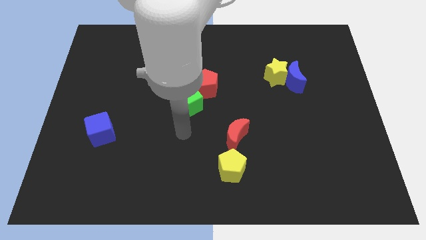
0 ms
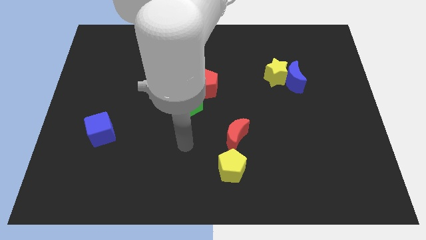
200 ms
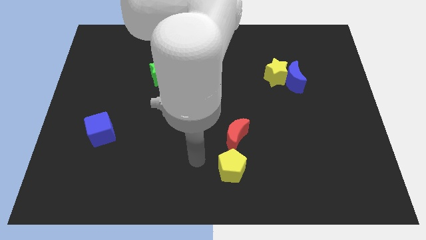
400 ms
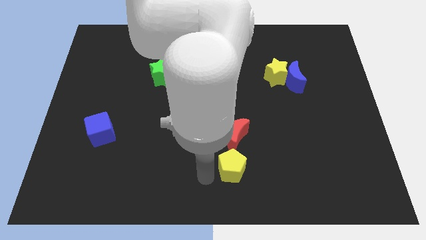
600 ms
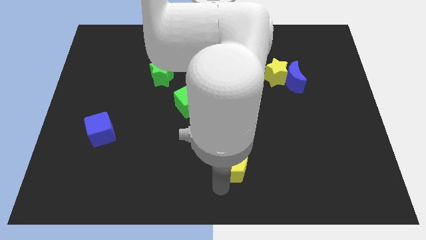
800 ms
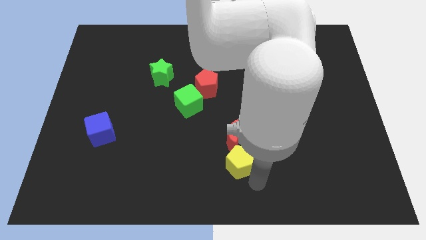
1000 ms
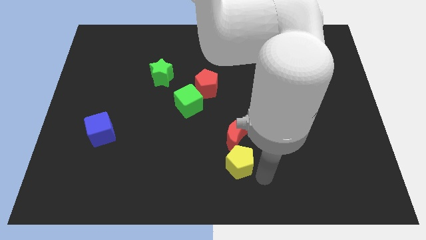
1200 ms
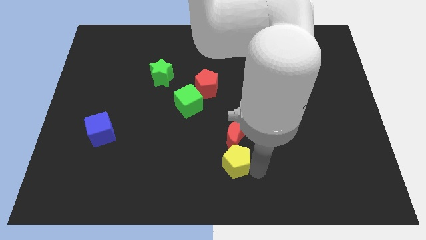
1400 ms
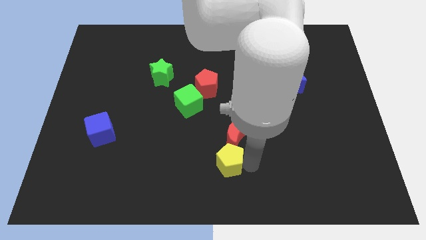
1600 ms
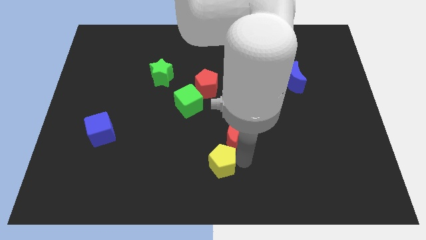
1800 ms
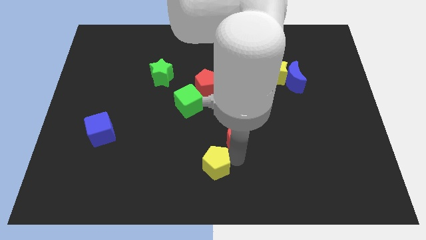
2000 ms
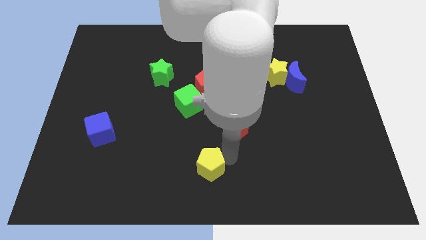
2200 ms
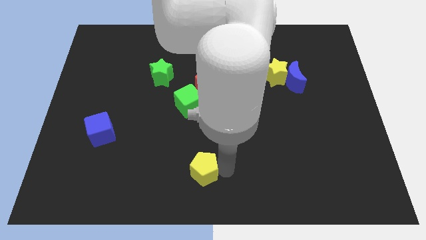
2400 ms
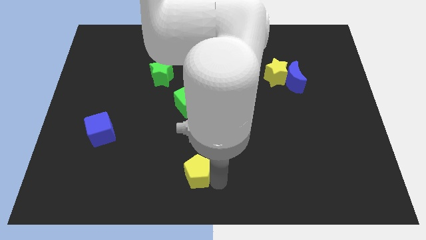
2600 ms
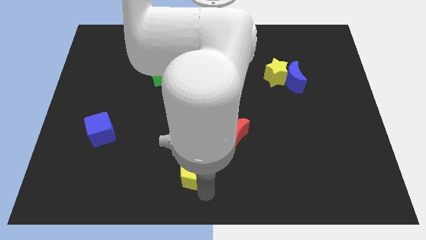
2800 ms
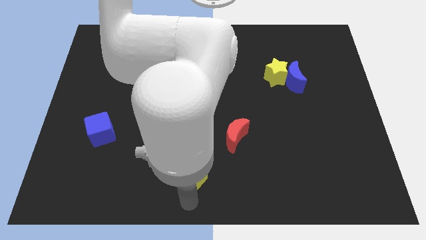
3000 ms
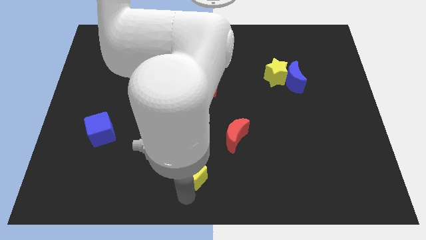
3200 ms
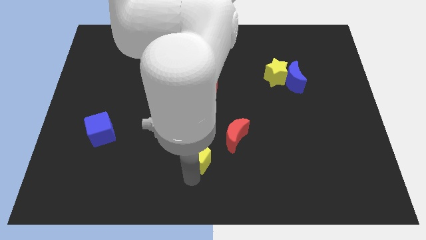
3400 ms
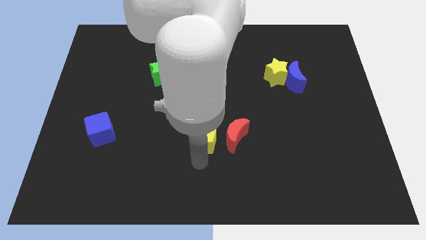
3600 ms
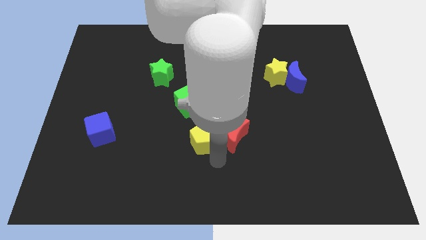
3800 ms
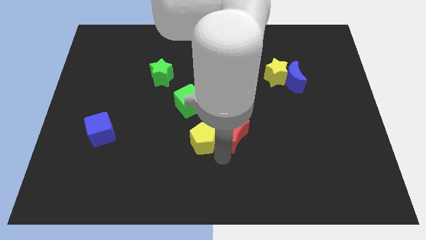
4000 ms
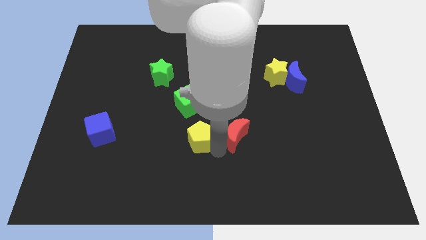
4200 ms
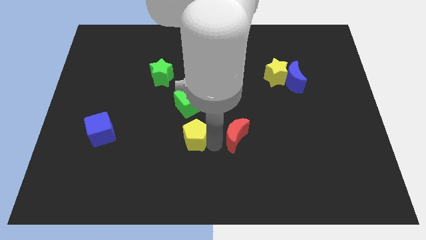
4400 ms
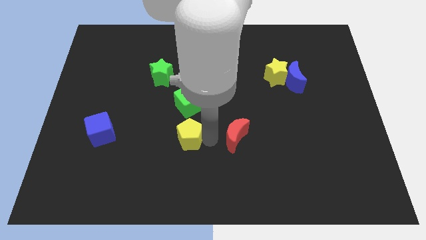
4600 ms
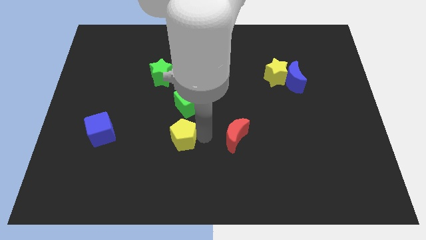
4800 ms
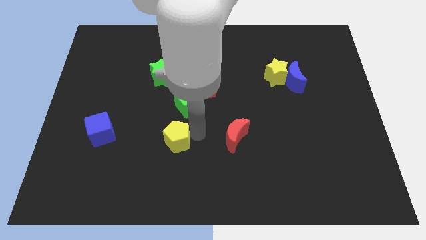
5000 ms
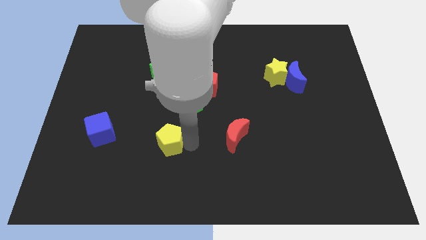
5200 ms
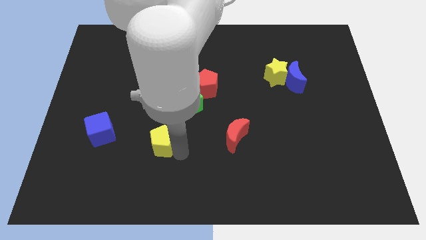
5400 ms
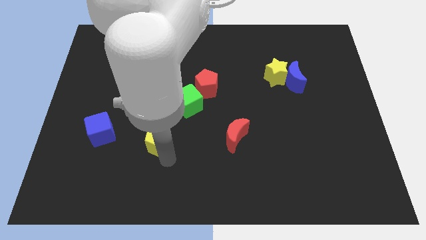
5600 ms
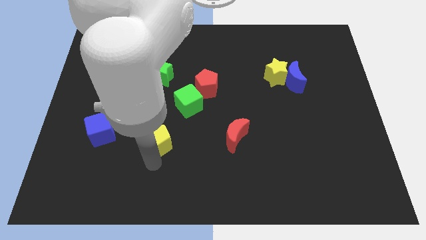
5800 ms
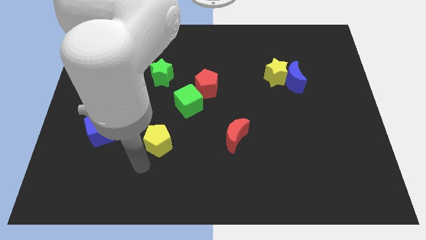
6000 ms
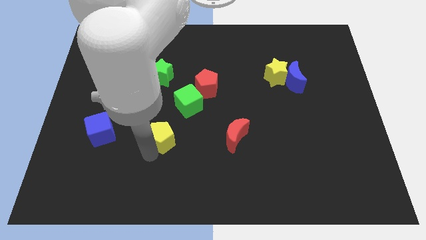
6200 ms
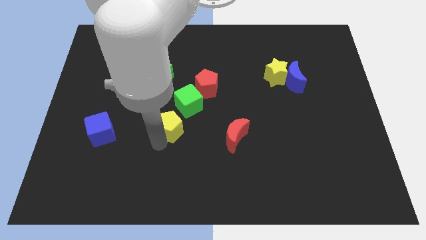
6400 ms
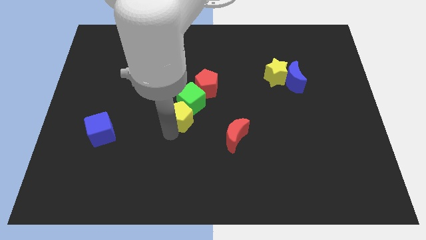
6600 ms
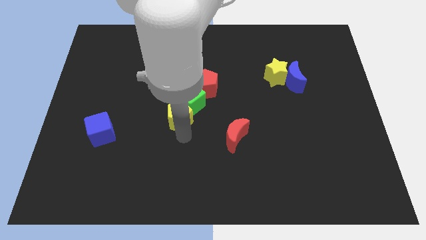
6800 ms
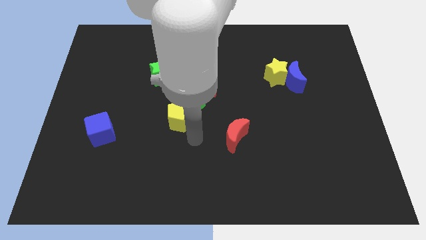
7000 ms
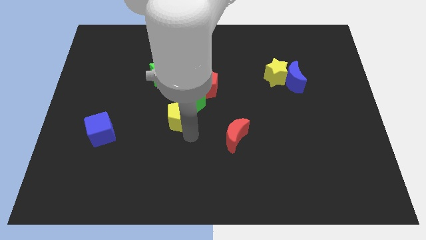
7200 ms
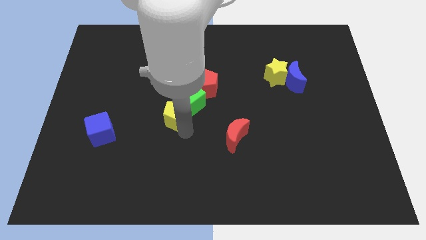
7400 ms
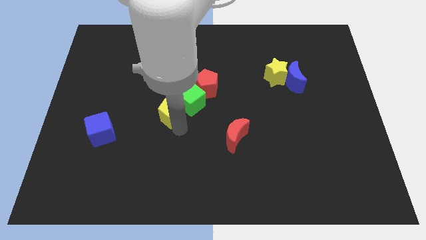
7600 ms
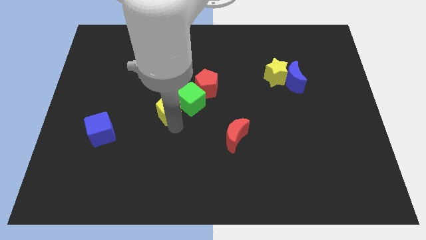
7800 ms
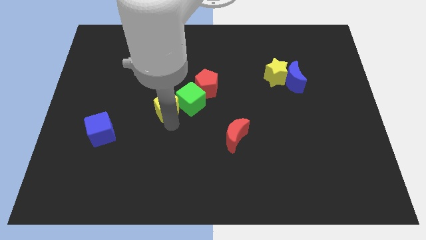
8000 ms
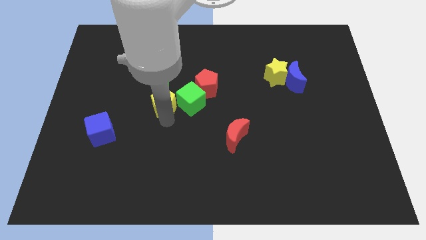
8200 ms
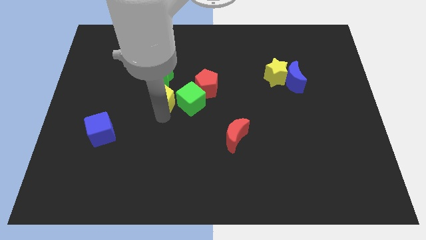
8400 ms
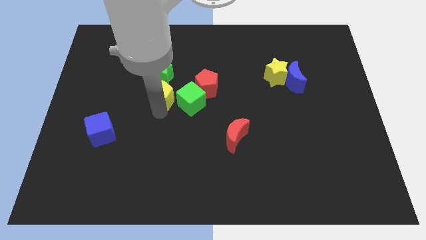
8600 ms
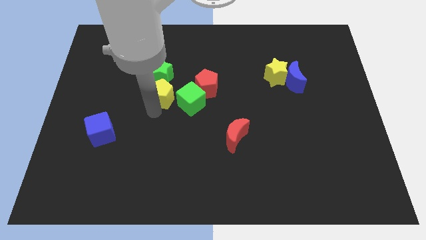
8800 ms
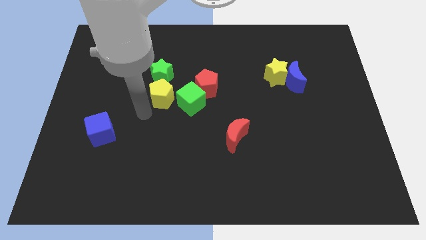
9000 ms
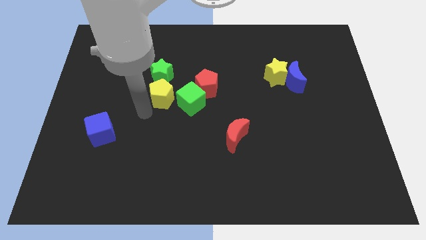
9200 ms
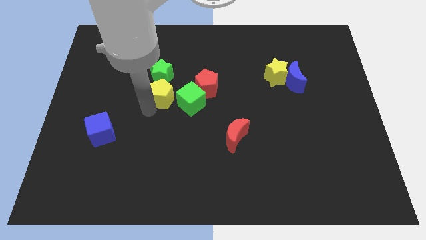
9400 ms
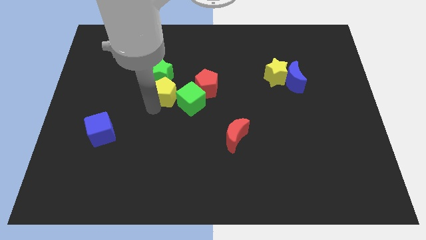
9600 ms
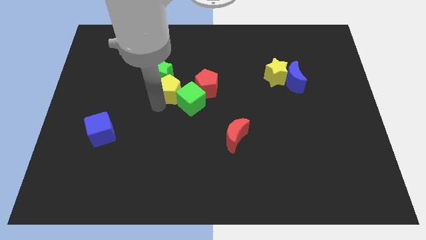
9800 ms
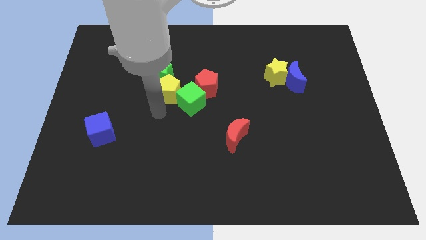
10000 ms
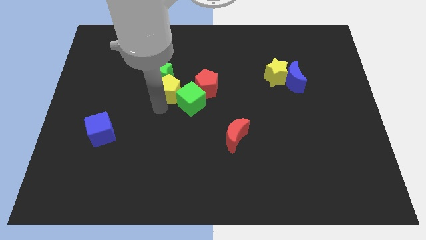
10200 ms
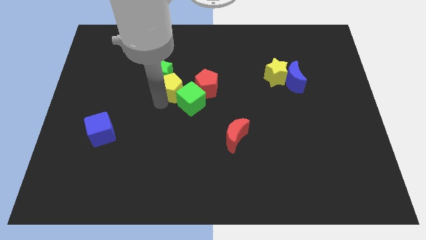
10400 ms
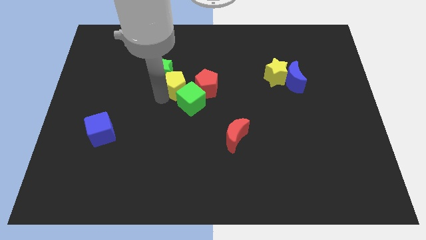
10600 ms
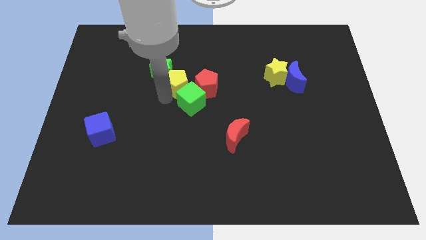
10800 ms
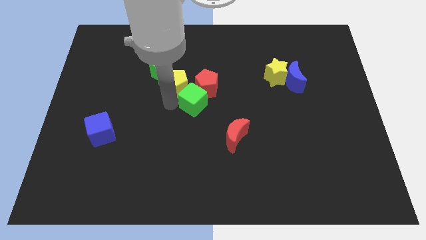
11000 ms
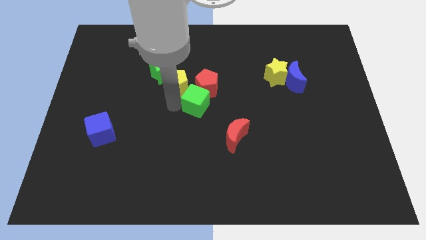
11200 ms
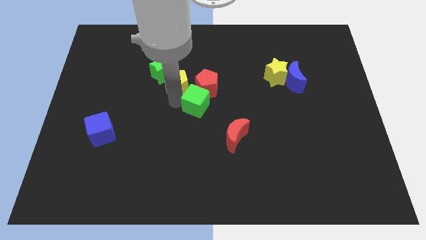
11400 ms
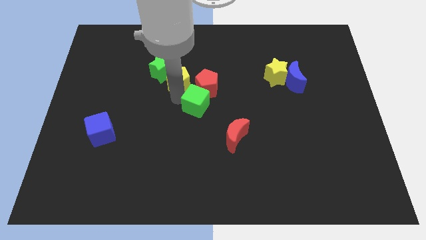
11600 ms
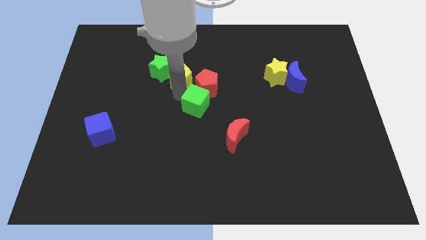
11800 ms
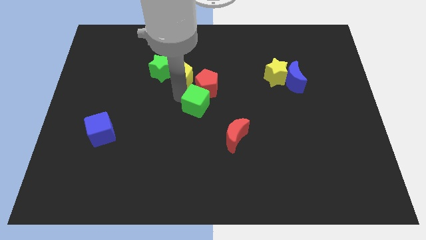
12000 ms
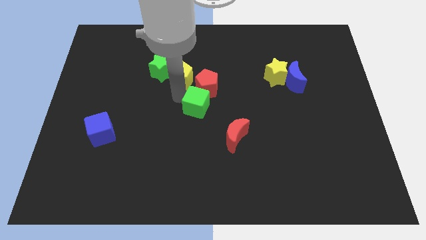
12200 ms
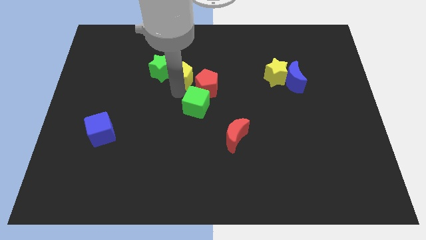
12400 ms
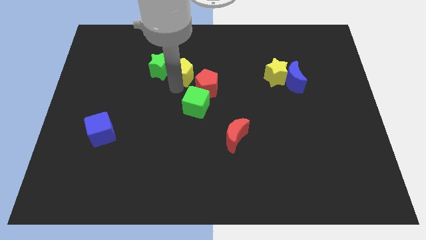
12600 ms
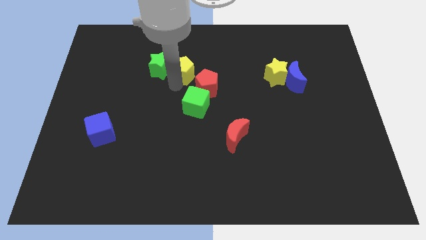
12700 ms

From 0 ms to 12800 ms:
slide the yellow pentagon diagonally up and to the right of the green star
